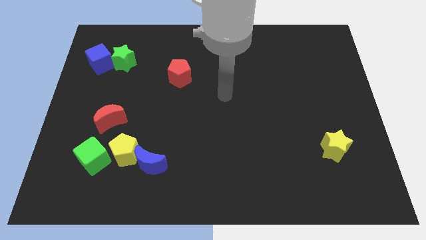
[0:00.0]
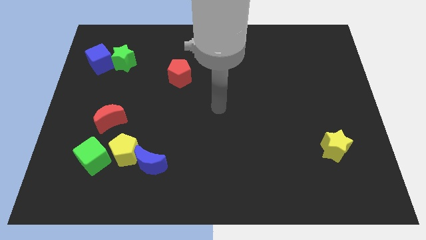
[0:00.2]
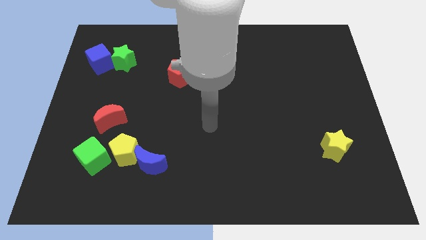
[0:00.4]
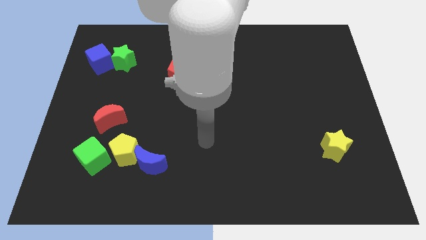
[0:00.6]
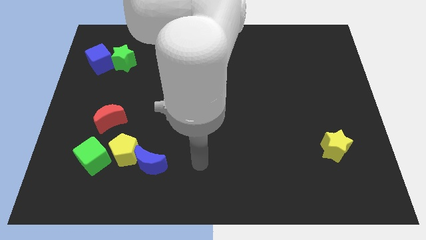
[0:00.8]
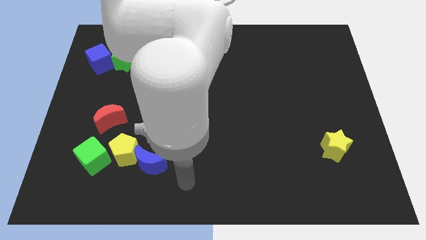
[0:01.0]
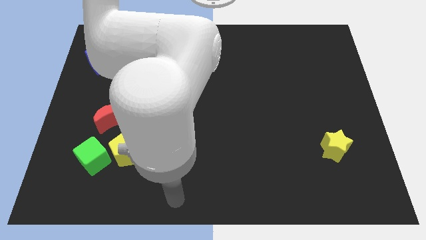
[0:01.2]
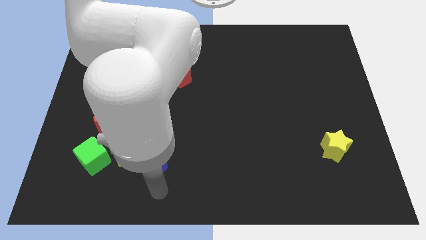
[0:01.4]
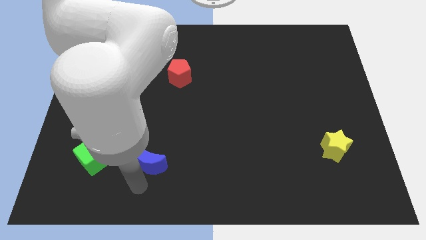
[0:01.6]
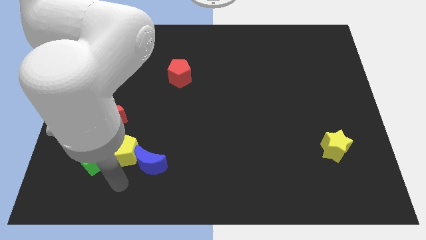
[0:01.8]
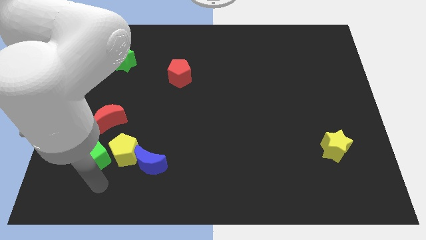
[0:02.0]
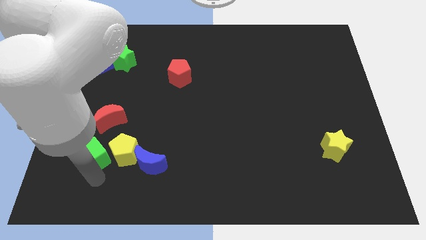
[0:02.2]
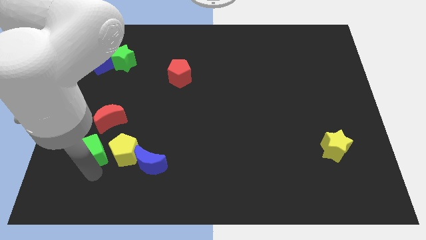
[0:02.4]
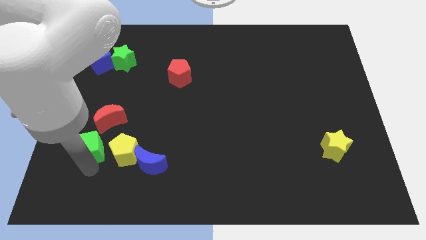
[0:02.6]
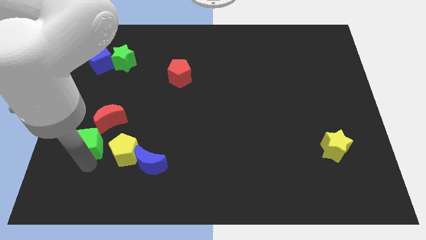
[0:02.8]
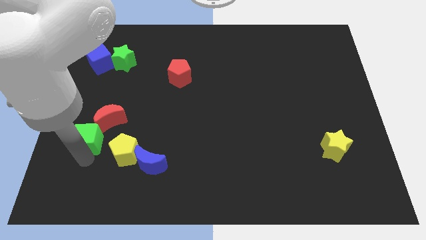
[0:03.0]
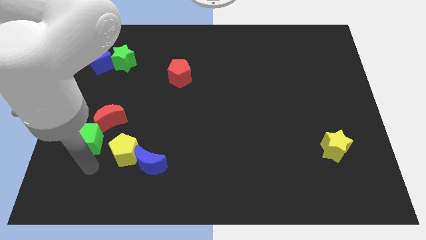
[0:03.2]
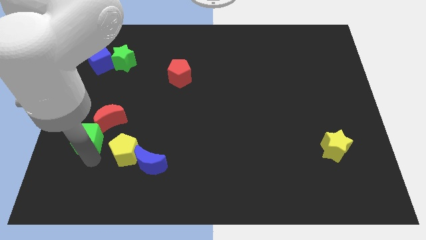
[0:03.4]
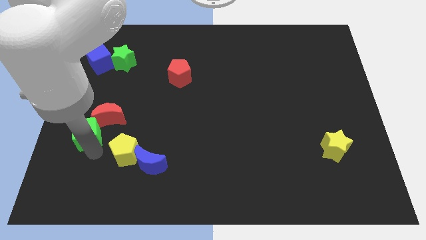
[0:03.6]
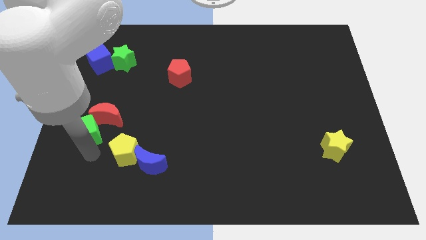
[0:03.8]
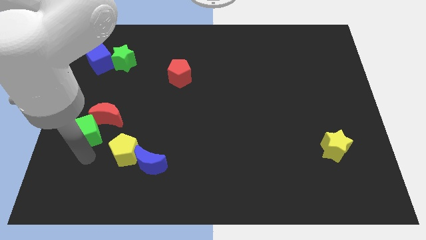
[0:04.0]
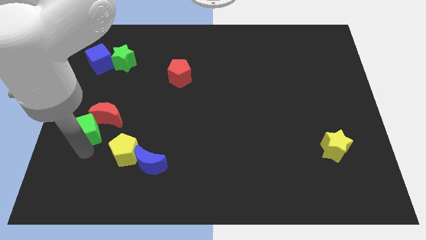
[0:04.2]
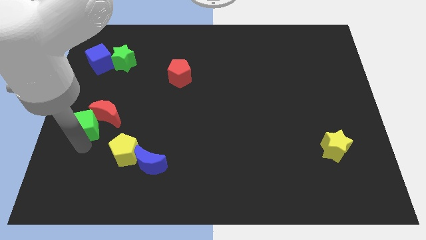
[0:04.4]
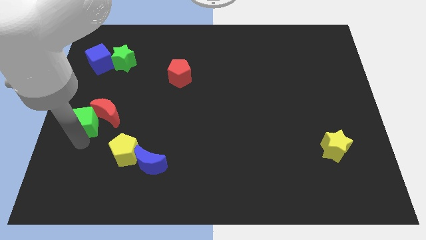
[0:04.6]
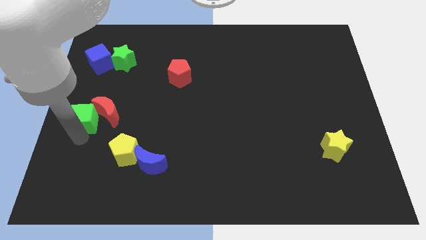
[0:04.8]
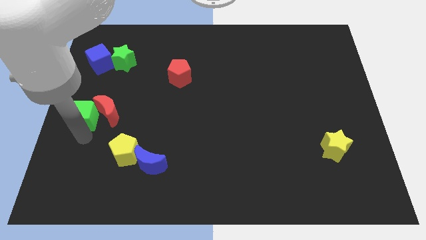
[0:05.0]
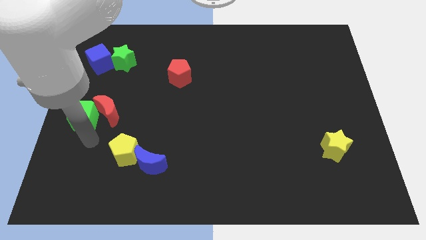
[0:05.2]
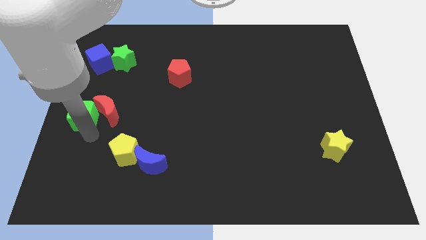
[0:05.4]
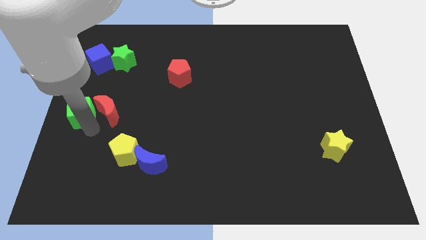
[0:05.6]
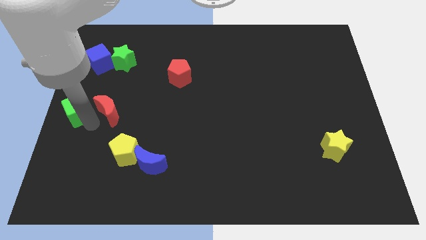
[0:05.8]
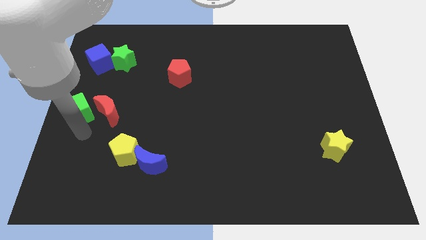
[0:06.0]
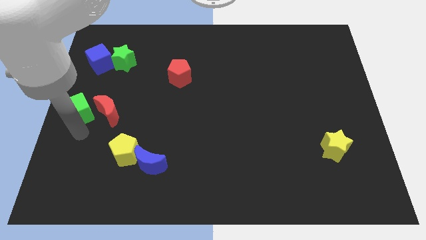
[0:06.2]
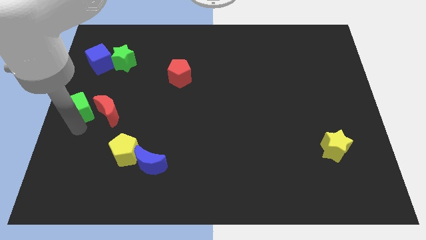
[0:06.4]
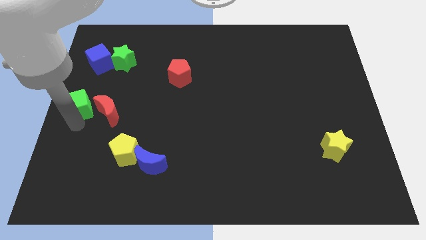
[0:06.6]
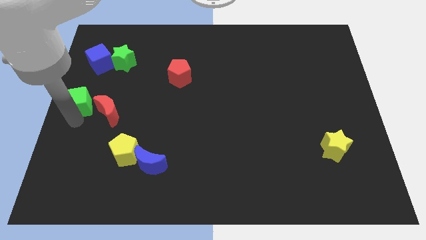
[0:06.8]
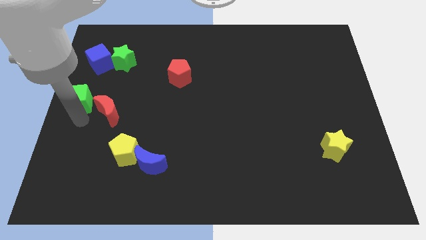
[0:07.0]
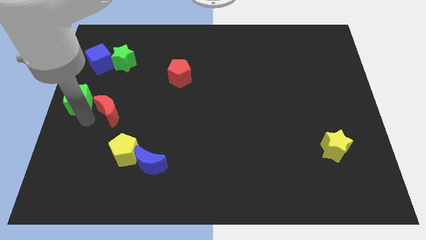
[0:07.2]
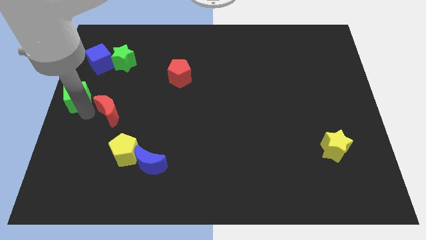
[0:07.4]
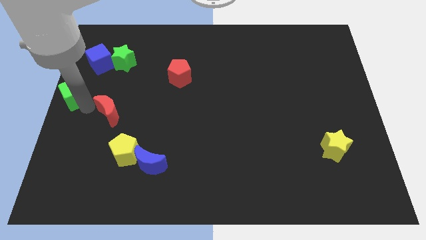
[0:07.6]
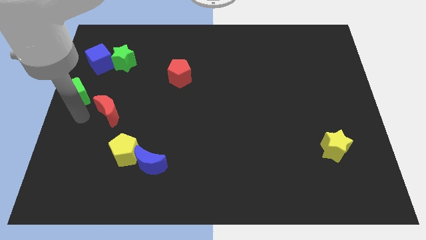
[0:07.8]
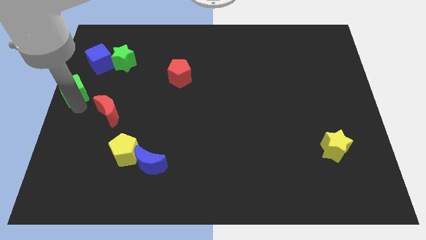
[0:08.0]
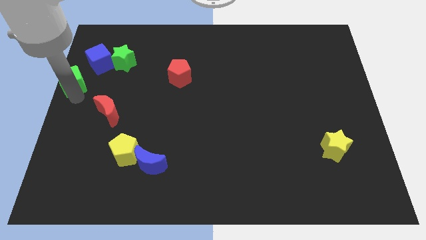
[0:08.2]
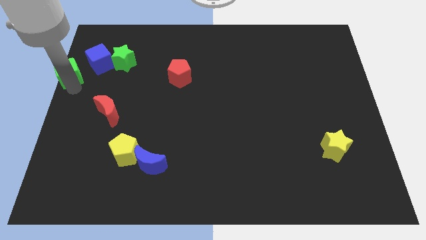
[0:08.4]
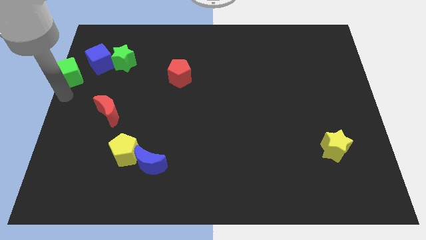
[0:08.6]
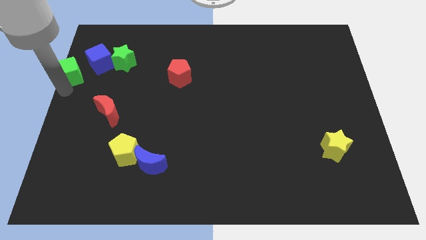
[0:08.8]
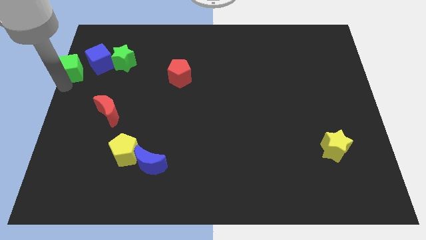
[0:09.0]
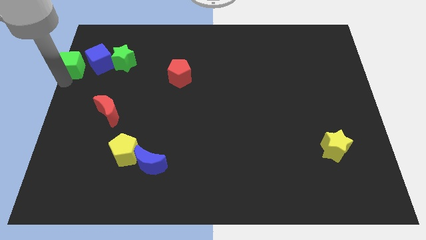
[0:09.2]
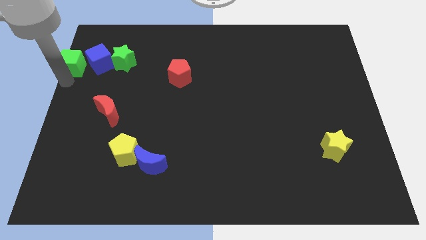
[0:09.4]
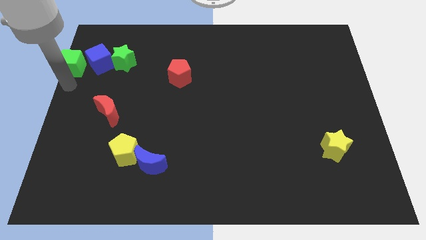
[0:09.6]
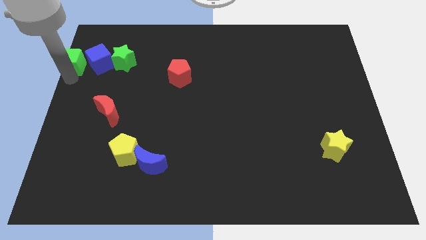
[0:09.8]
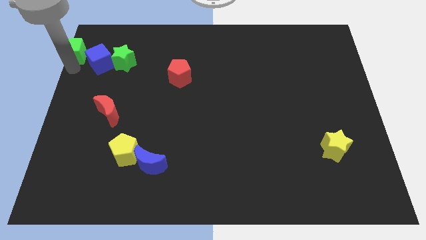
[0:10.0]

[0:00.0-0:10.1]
slide the green cube to the top left

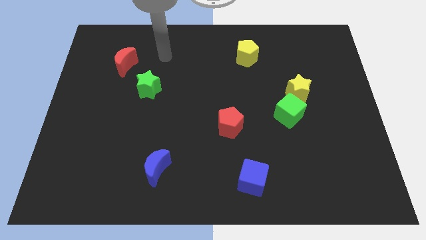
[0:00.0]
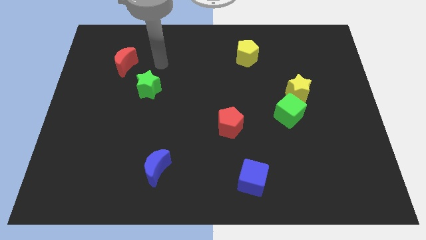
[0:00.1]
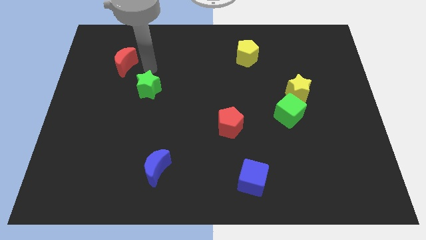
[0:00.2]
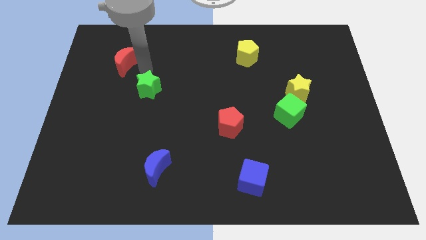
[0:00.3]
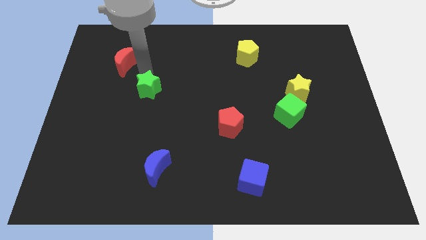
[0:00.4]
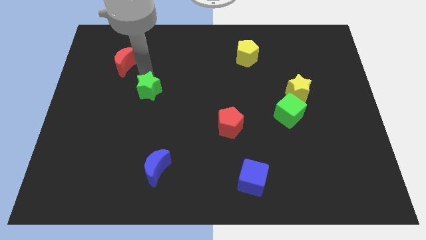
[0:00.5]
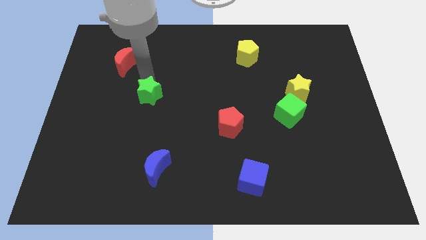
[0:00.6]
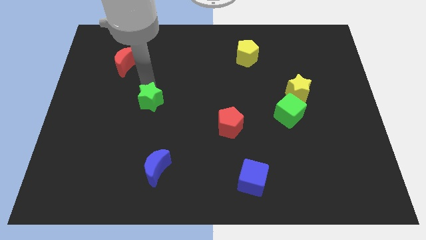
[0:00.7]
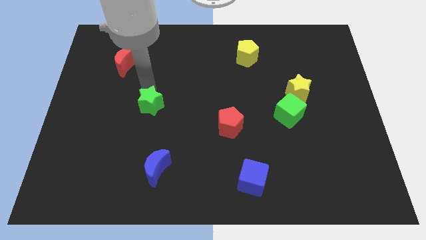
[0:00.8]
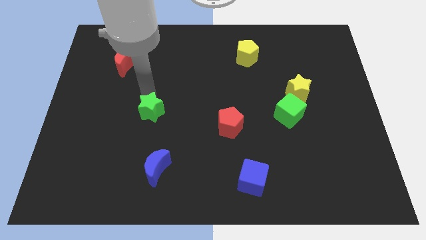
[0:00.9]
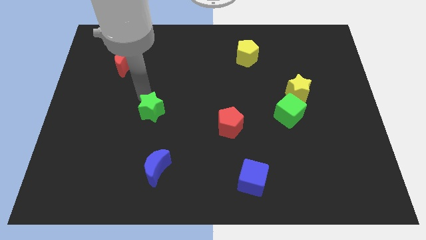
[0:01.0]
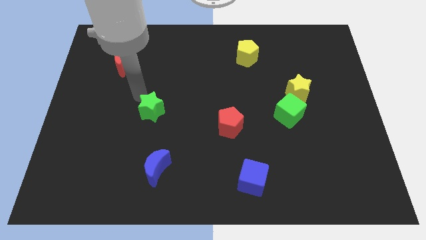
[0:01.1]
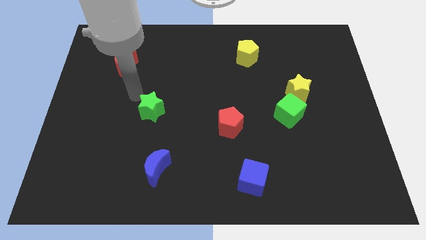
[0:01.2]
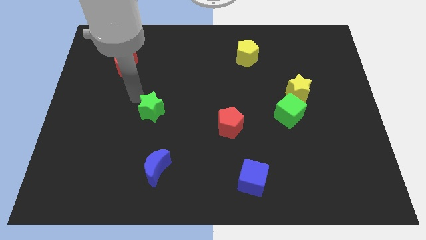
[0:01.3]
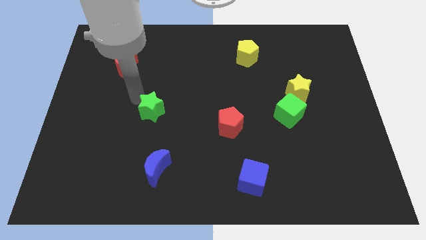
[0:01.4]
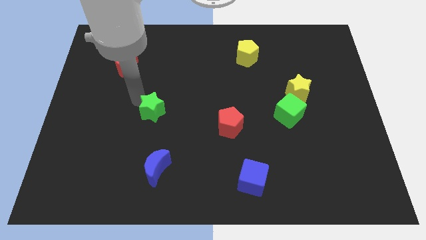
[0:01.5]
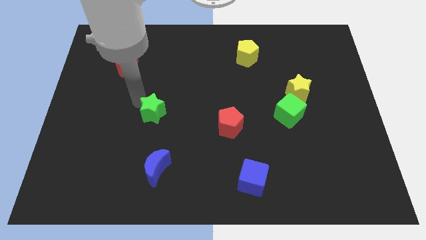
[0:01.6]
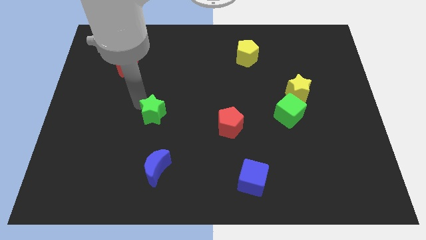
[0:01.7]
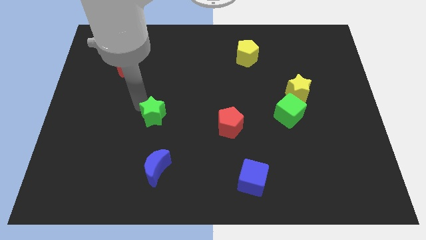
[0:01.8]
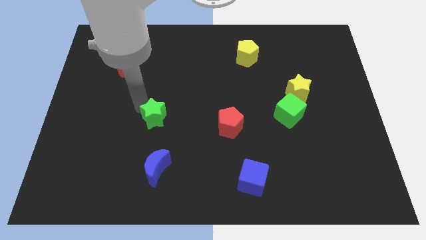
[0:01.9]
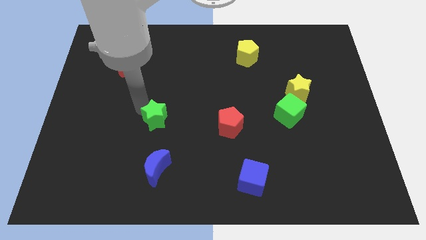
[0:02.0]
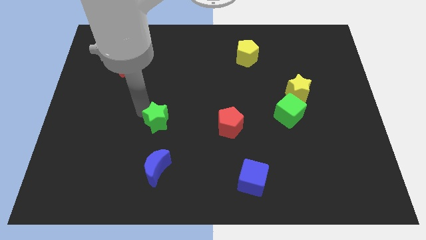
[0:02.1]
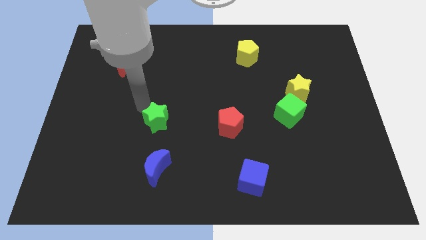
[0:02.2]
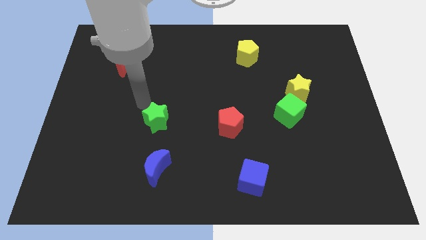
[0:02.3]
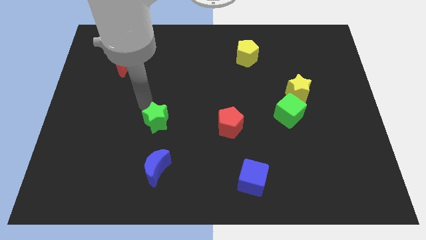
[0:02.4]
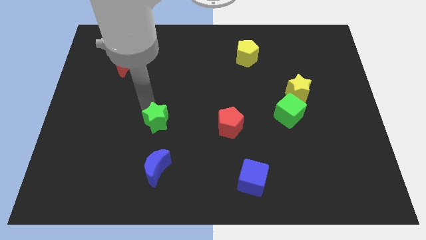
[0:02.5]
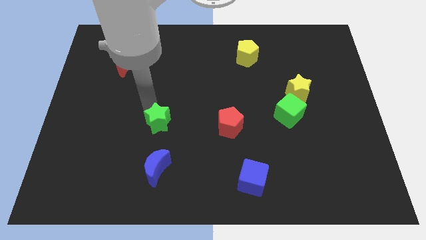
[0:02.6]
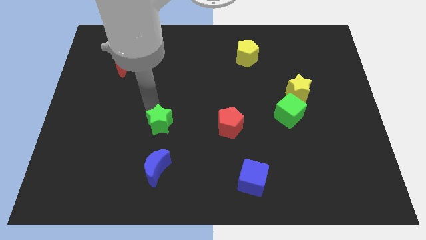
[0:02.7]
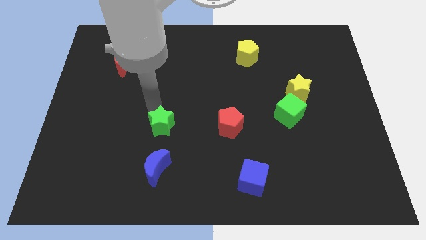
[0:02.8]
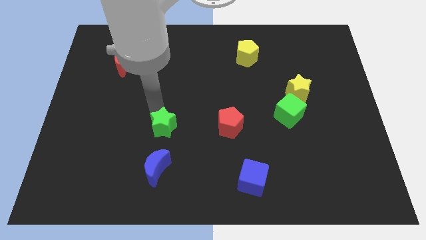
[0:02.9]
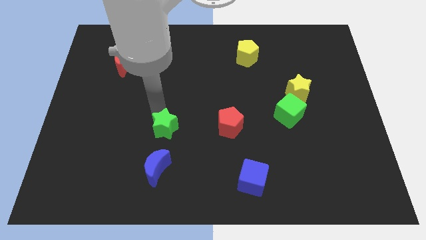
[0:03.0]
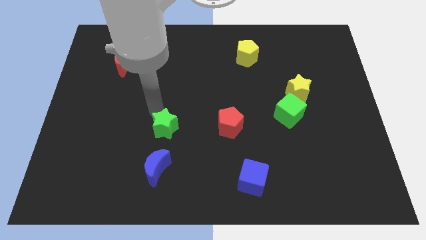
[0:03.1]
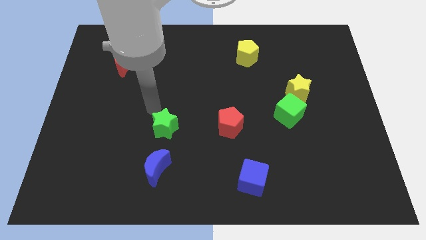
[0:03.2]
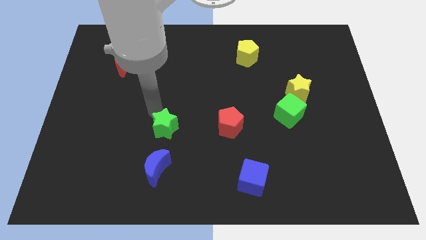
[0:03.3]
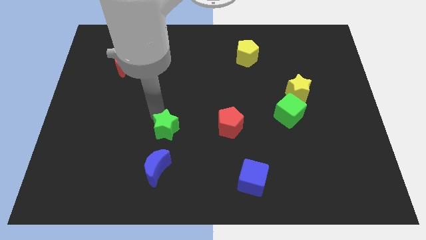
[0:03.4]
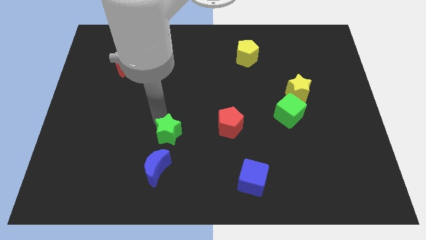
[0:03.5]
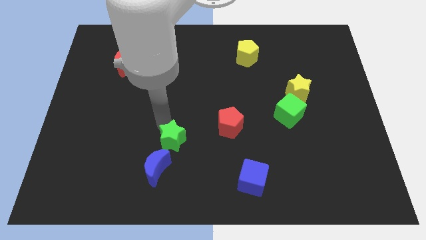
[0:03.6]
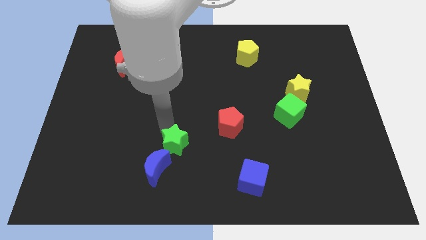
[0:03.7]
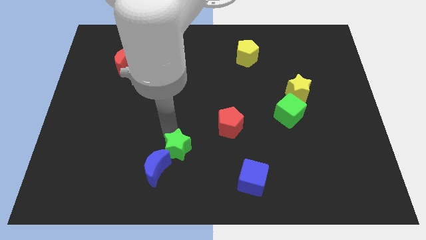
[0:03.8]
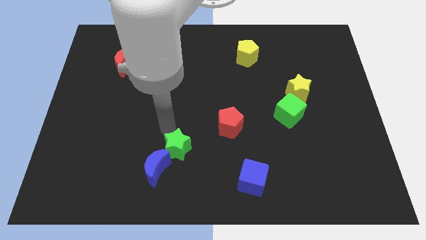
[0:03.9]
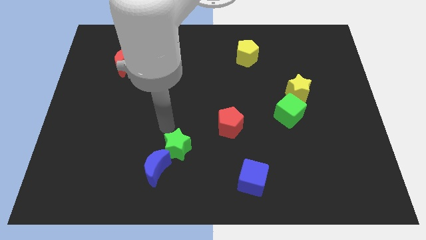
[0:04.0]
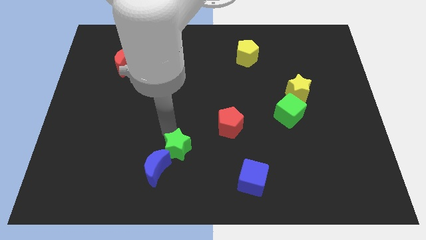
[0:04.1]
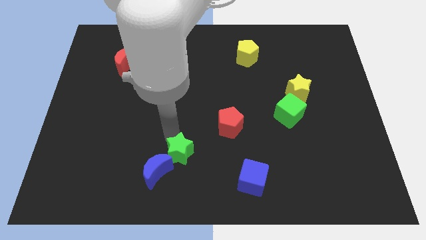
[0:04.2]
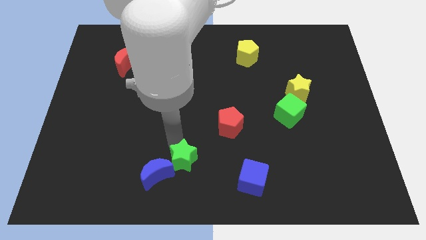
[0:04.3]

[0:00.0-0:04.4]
push the green star to the bottom
